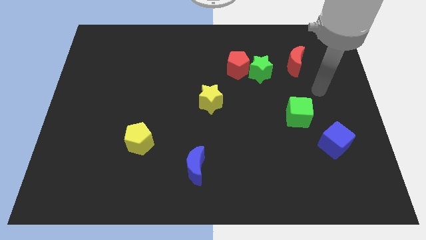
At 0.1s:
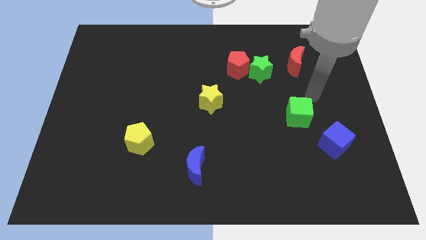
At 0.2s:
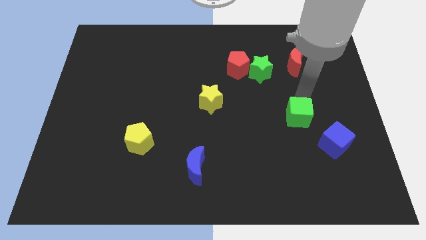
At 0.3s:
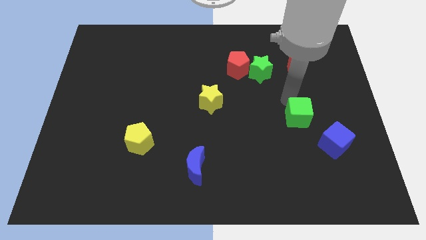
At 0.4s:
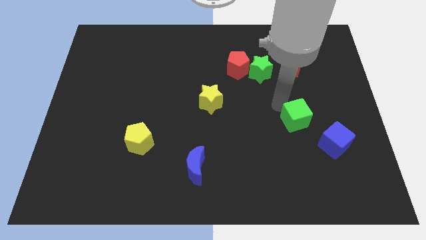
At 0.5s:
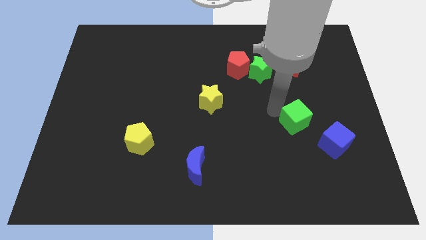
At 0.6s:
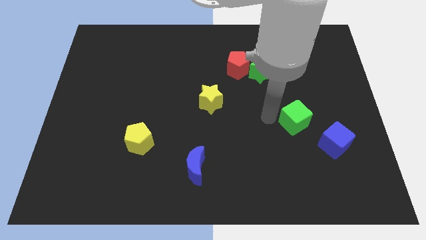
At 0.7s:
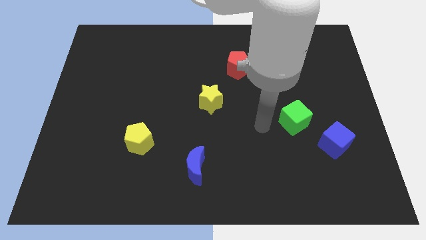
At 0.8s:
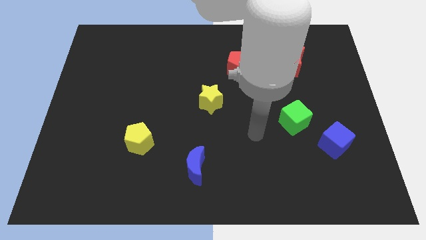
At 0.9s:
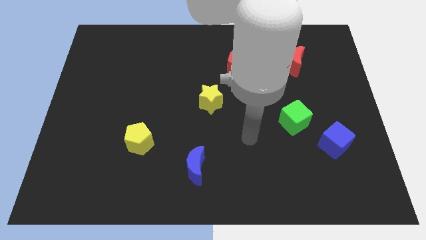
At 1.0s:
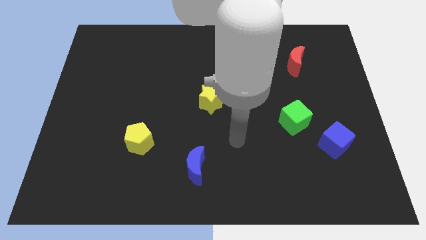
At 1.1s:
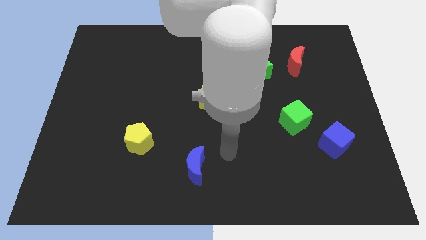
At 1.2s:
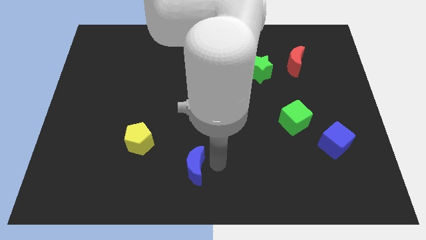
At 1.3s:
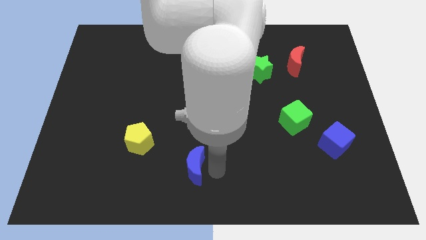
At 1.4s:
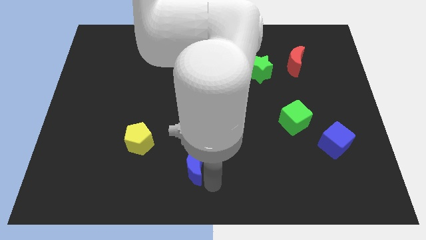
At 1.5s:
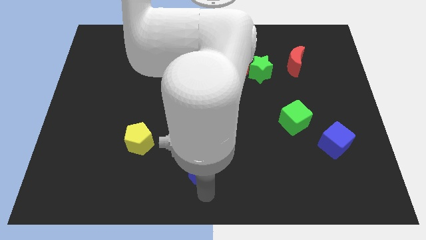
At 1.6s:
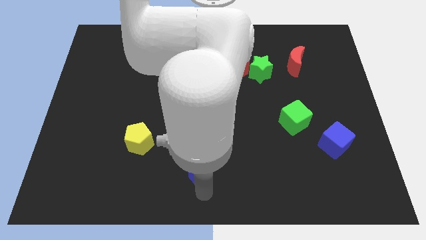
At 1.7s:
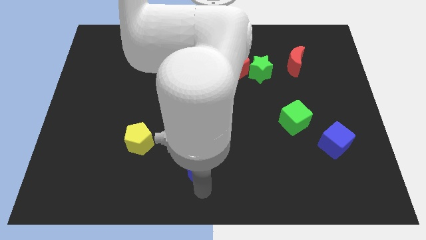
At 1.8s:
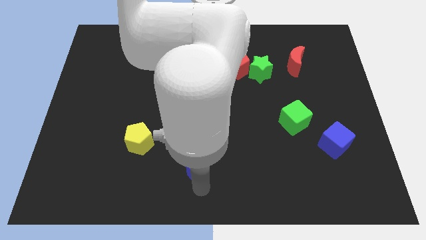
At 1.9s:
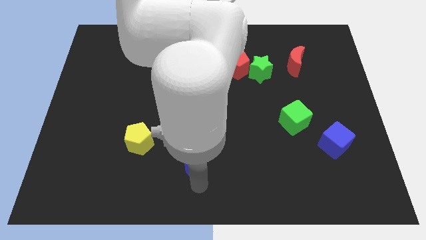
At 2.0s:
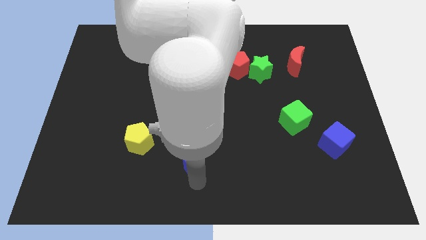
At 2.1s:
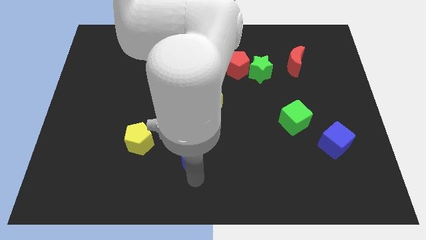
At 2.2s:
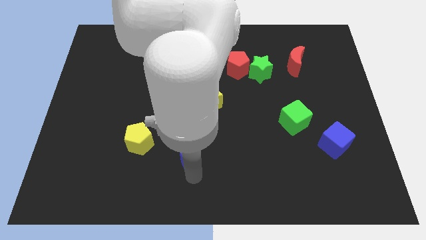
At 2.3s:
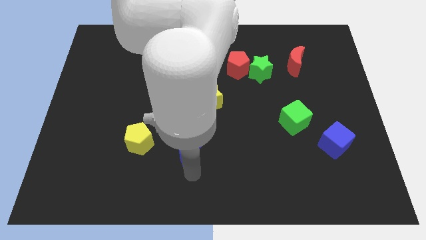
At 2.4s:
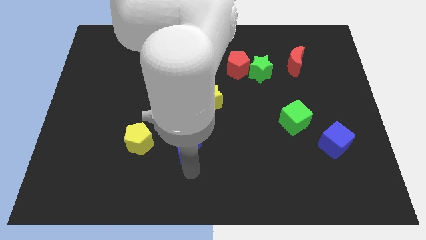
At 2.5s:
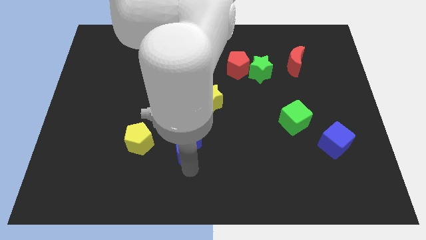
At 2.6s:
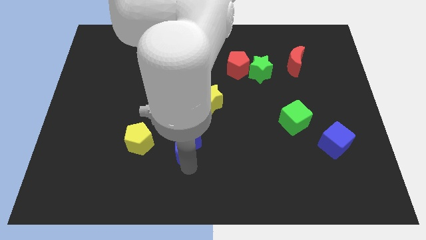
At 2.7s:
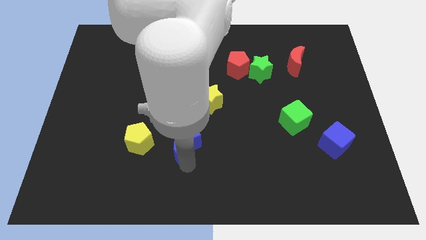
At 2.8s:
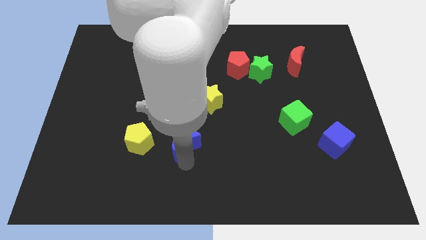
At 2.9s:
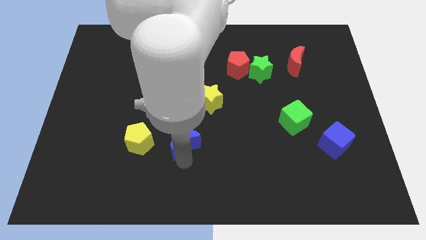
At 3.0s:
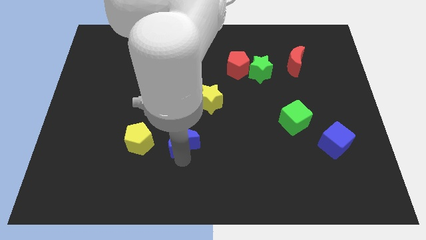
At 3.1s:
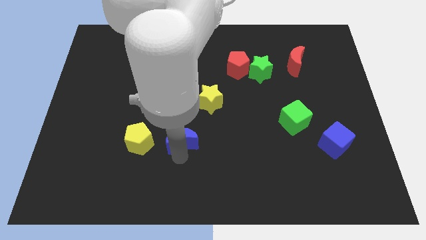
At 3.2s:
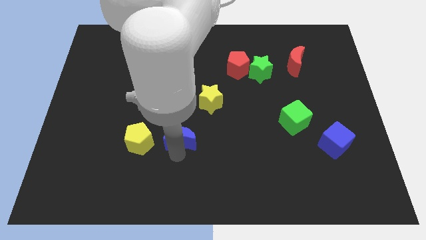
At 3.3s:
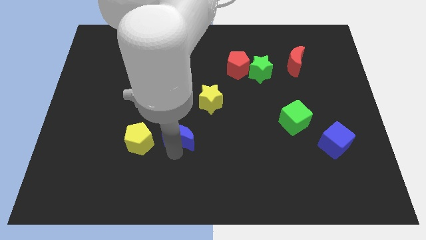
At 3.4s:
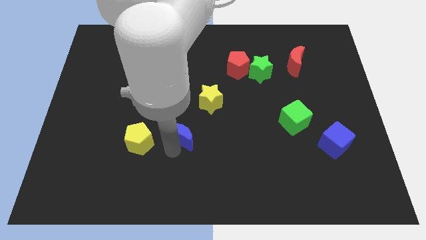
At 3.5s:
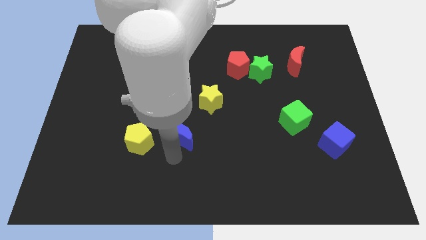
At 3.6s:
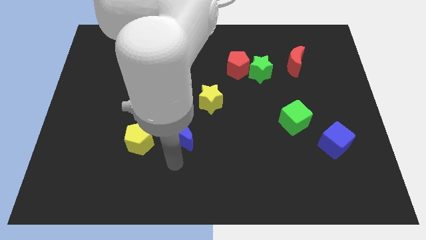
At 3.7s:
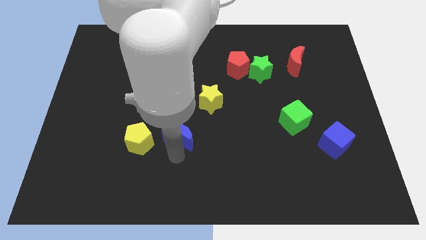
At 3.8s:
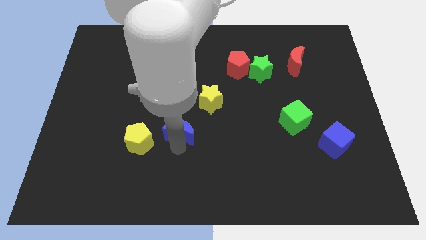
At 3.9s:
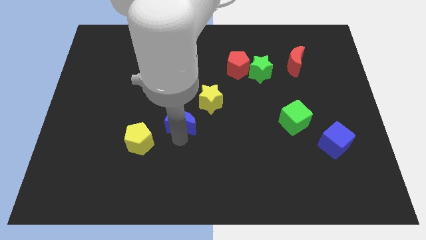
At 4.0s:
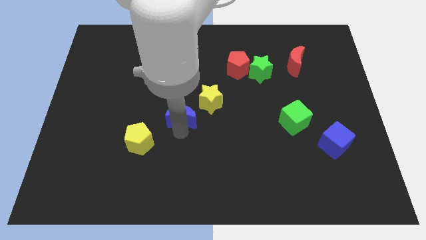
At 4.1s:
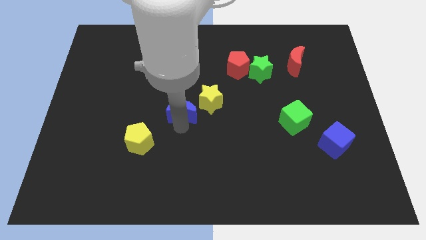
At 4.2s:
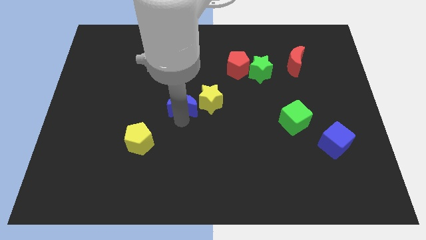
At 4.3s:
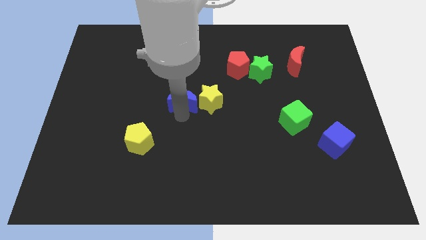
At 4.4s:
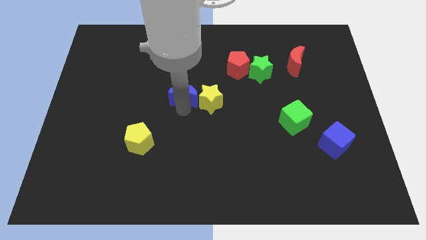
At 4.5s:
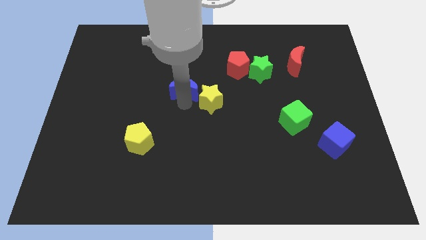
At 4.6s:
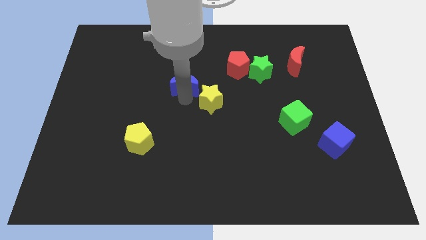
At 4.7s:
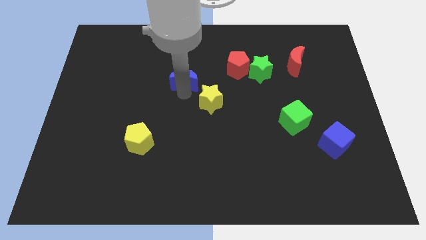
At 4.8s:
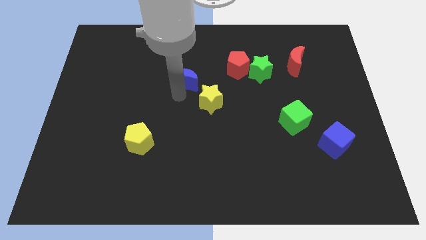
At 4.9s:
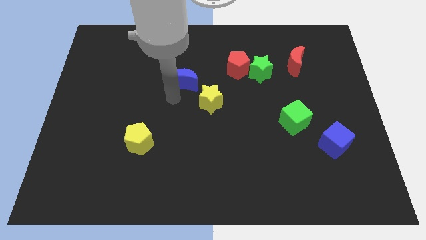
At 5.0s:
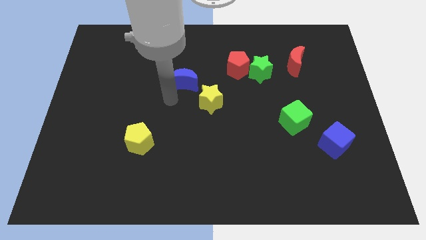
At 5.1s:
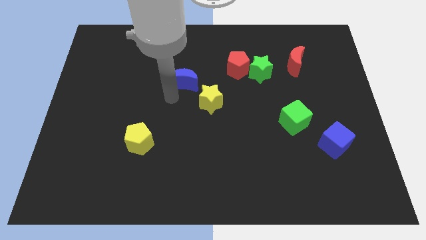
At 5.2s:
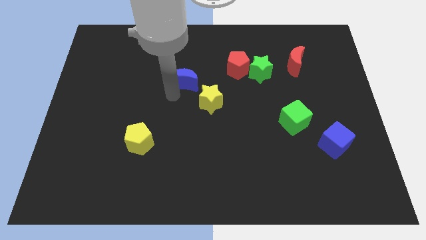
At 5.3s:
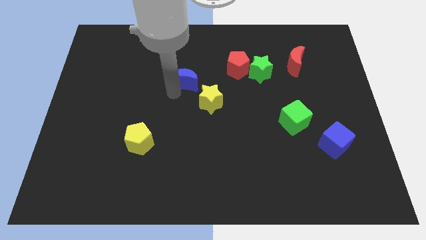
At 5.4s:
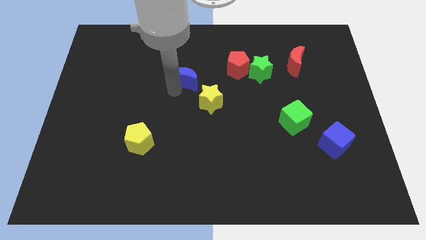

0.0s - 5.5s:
slide the blue moon just left of the red pentagon
